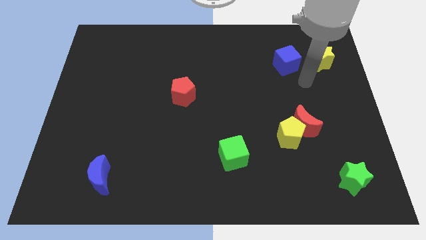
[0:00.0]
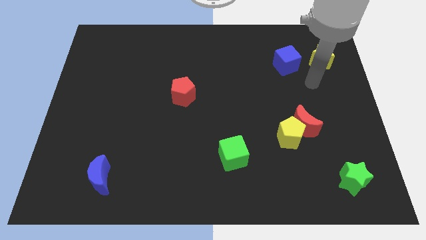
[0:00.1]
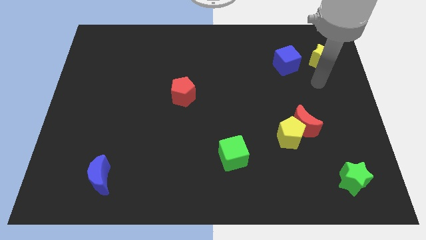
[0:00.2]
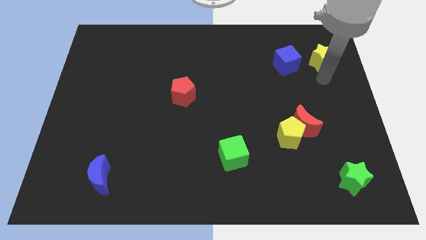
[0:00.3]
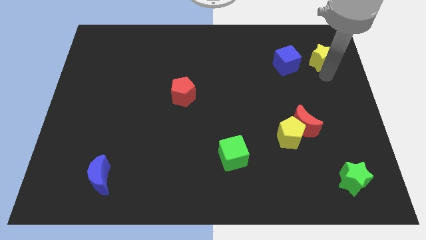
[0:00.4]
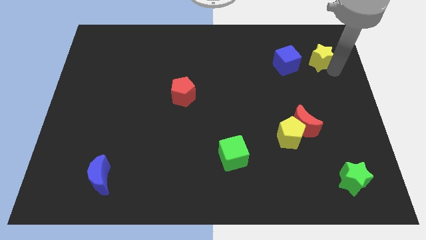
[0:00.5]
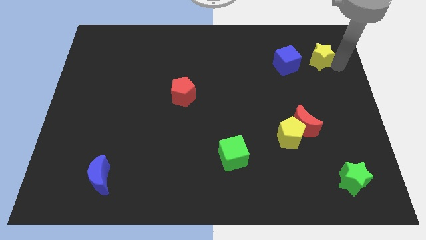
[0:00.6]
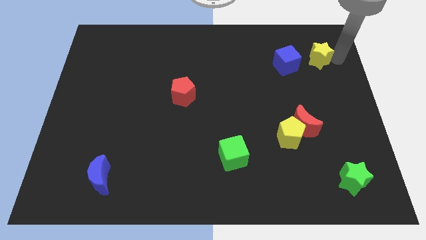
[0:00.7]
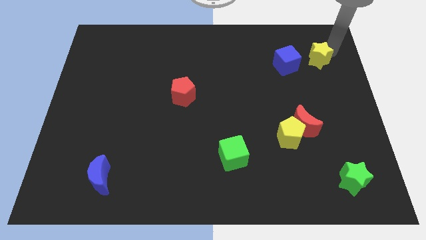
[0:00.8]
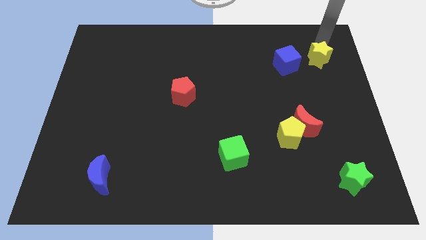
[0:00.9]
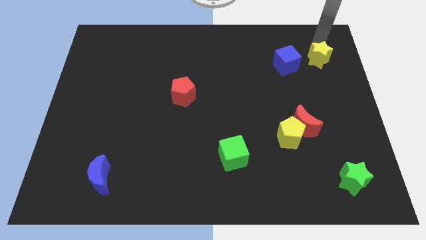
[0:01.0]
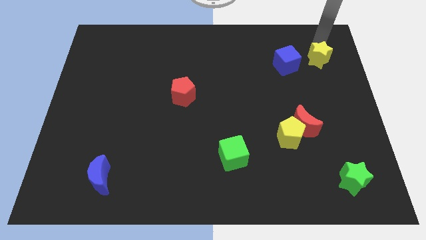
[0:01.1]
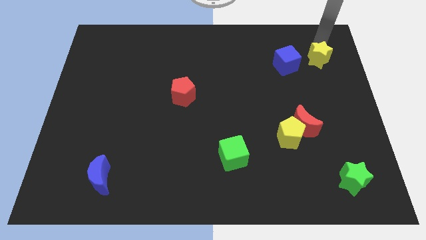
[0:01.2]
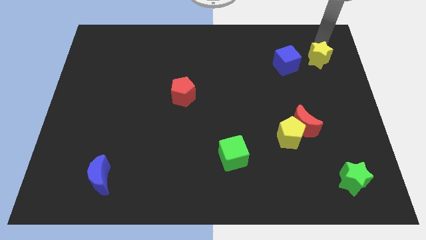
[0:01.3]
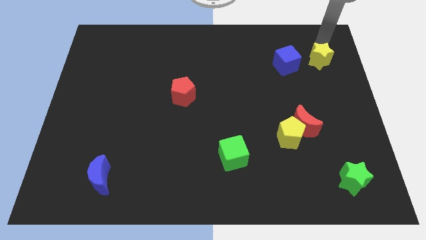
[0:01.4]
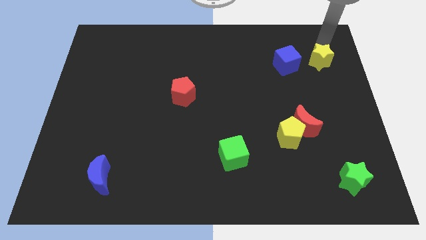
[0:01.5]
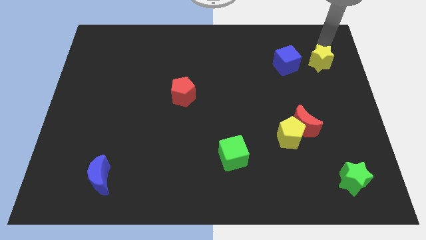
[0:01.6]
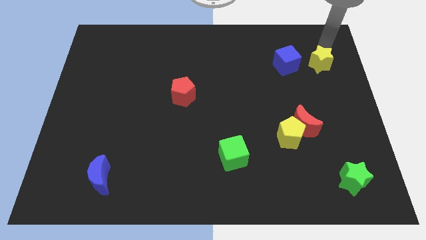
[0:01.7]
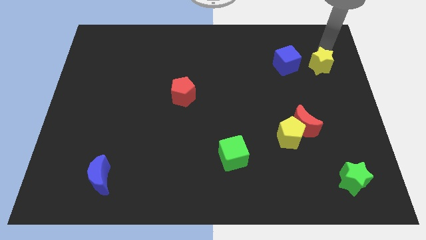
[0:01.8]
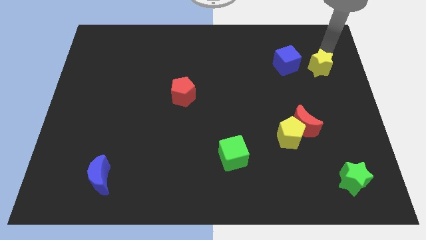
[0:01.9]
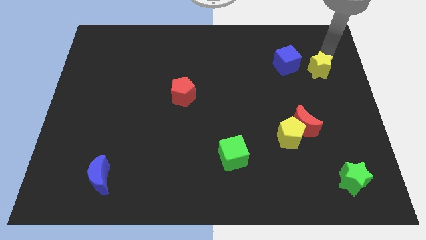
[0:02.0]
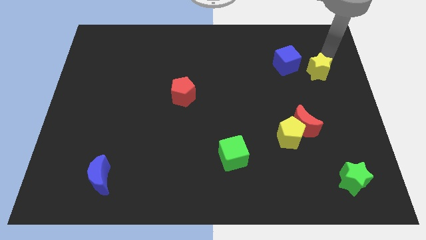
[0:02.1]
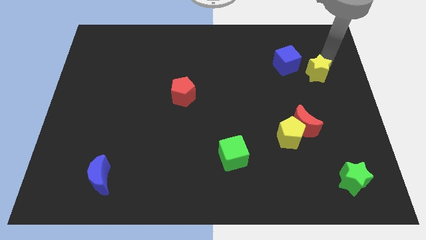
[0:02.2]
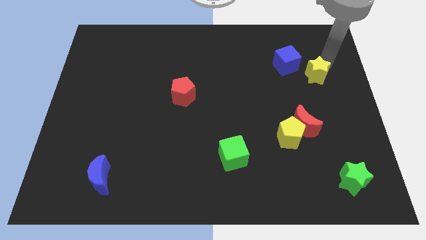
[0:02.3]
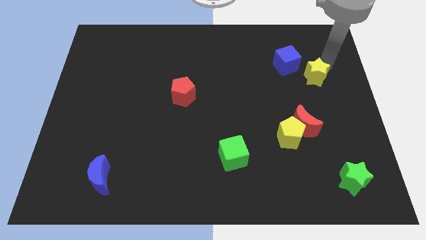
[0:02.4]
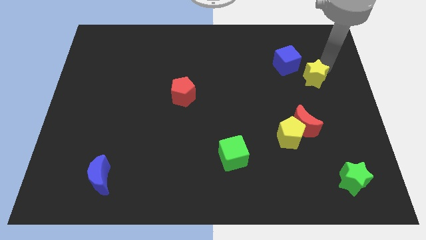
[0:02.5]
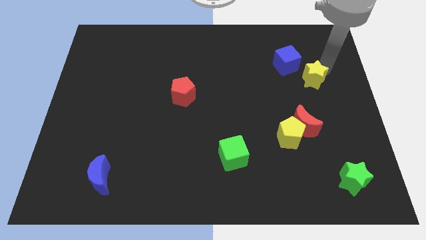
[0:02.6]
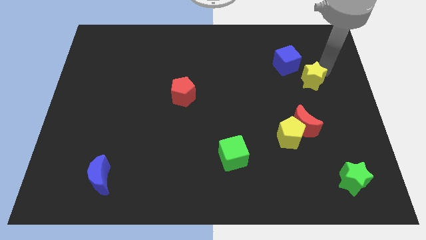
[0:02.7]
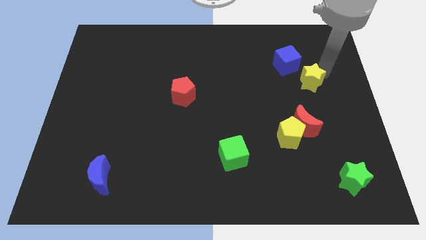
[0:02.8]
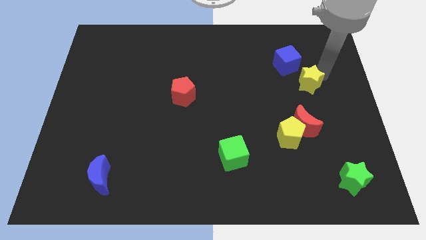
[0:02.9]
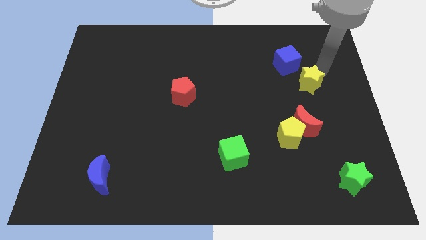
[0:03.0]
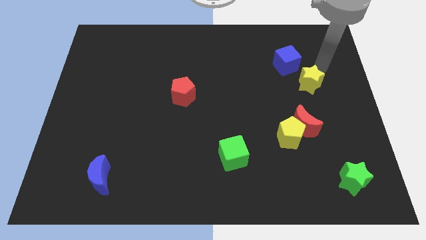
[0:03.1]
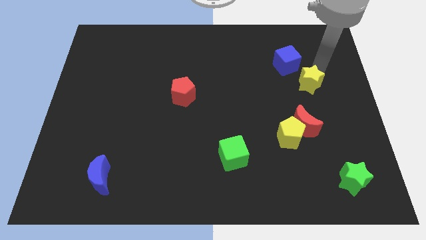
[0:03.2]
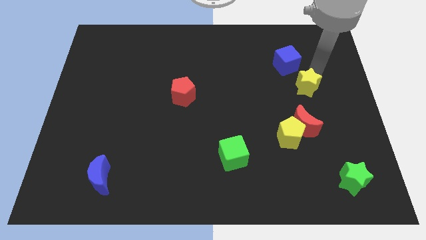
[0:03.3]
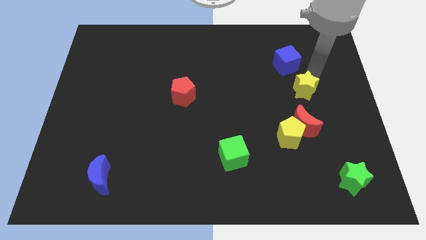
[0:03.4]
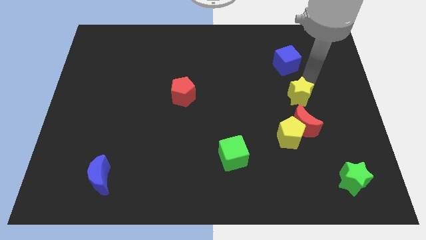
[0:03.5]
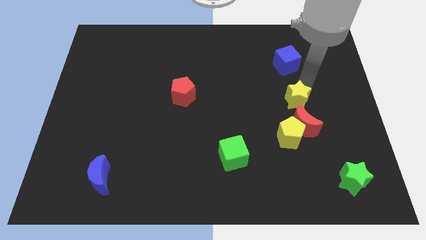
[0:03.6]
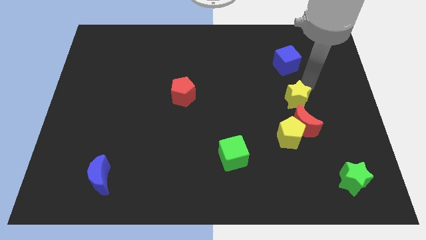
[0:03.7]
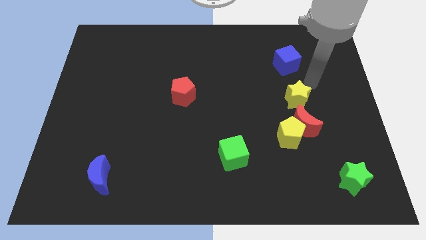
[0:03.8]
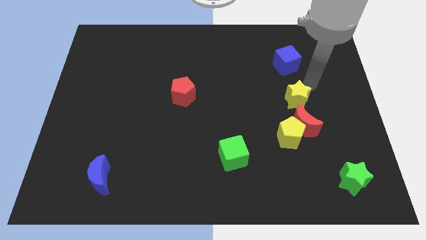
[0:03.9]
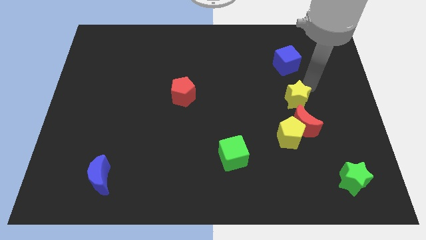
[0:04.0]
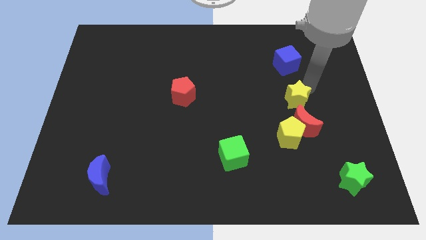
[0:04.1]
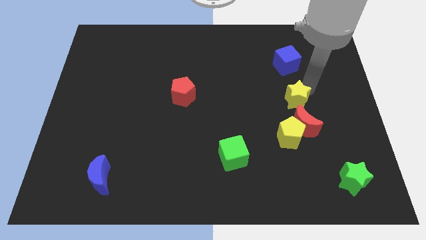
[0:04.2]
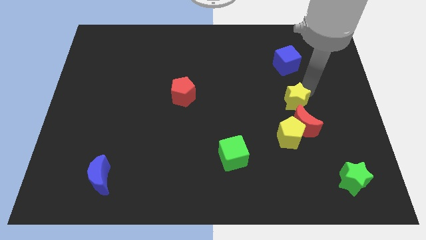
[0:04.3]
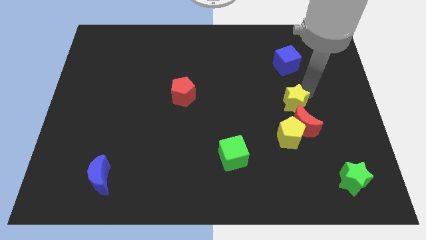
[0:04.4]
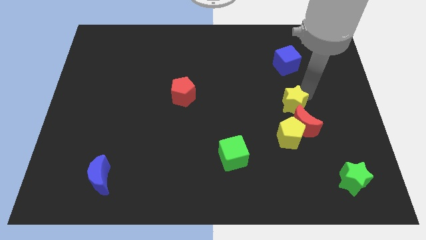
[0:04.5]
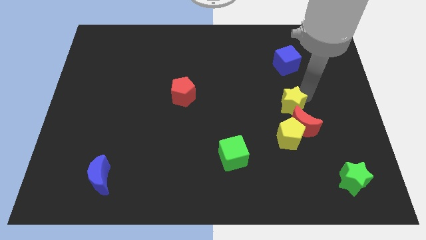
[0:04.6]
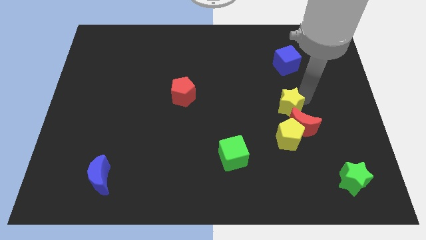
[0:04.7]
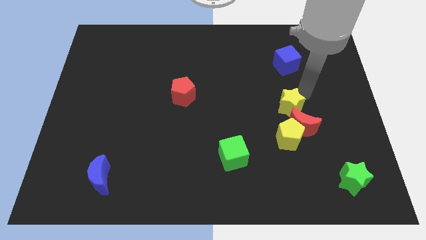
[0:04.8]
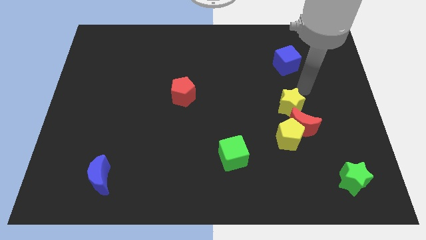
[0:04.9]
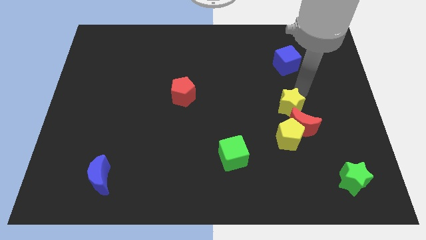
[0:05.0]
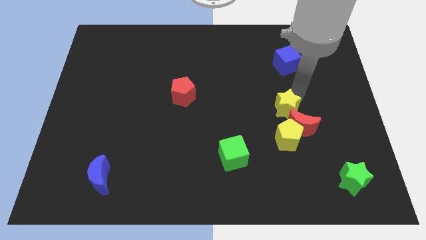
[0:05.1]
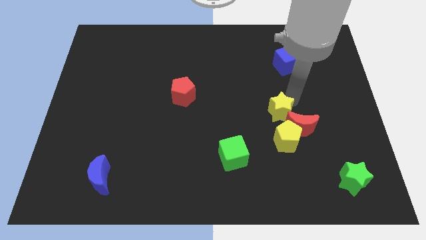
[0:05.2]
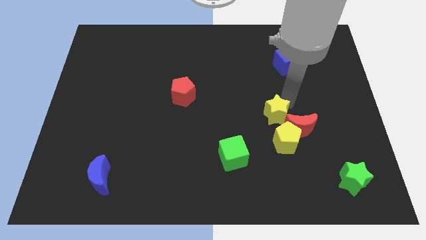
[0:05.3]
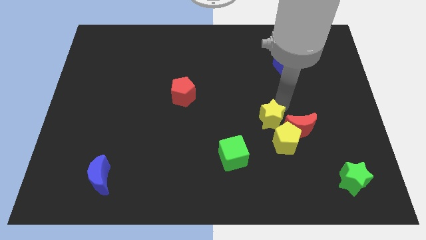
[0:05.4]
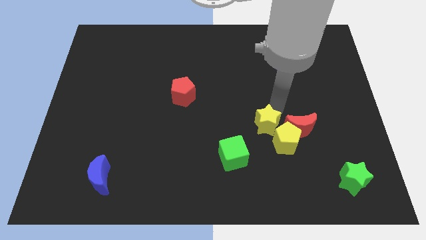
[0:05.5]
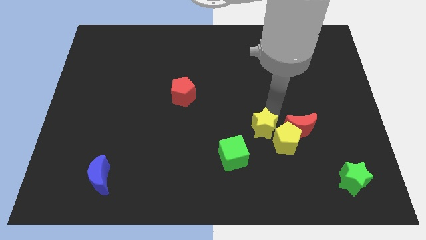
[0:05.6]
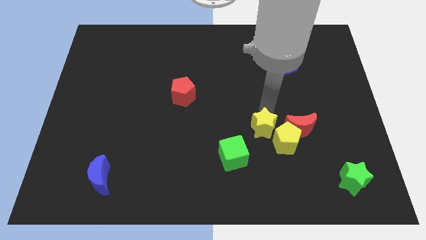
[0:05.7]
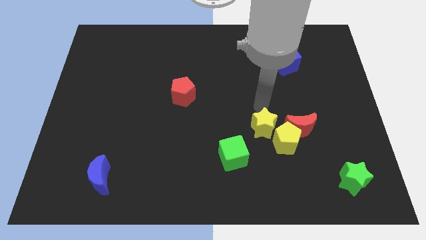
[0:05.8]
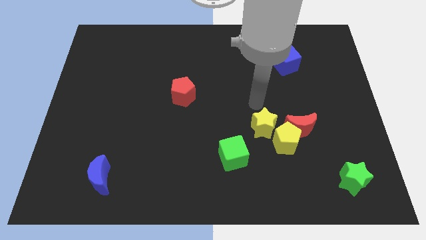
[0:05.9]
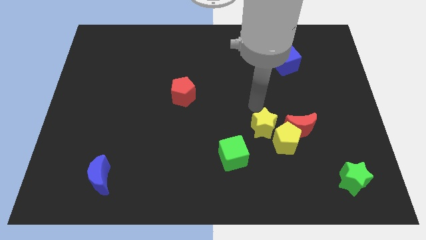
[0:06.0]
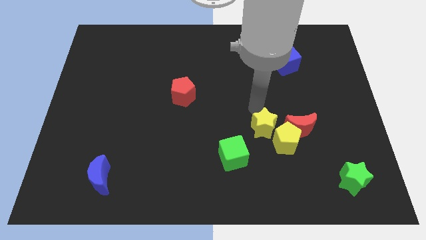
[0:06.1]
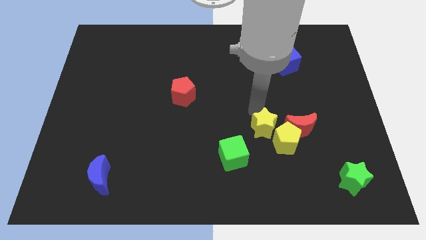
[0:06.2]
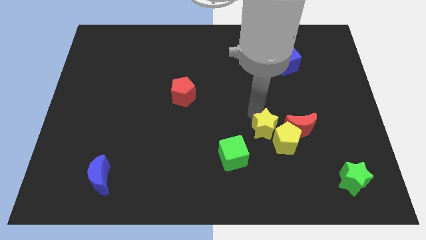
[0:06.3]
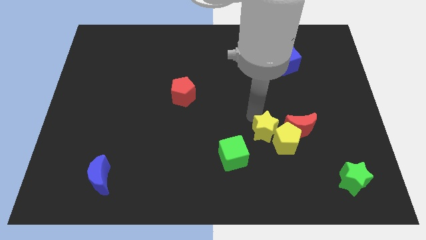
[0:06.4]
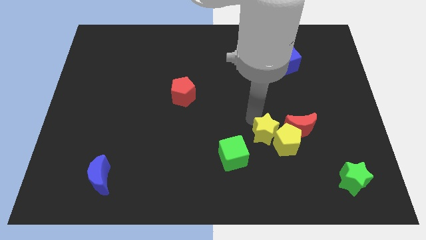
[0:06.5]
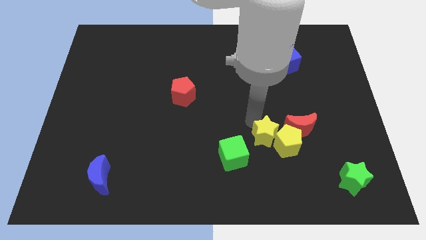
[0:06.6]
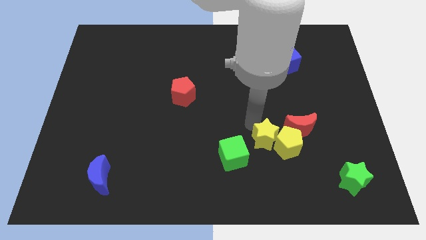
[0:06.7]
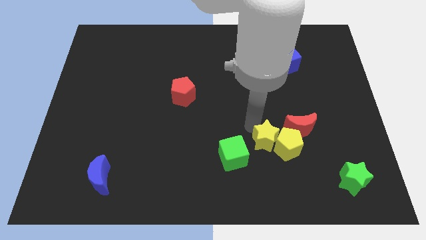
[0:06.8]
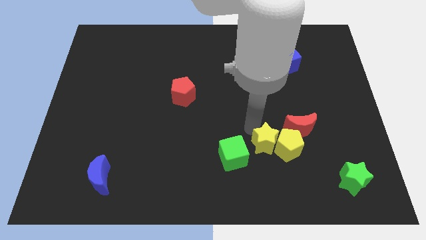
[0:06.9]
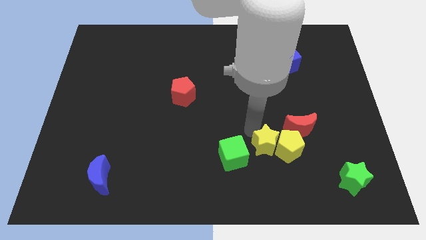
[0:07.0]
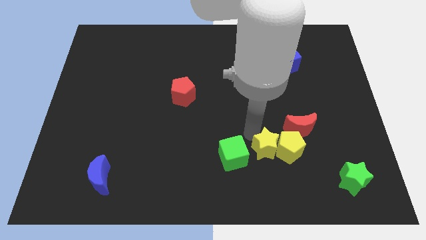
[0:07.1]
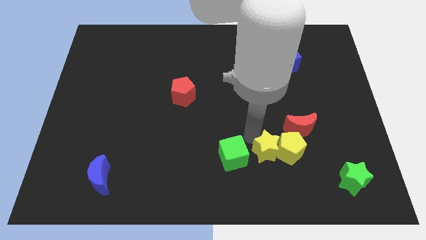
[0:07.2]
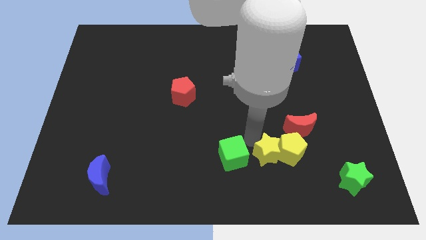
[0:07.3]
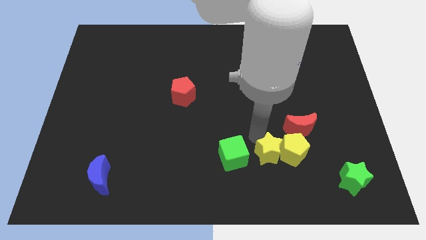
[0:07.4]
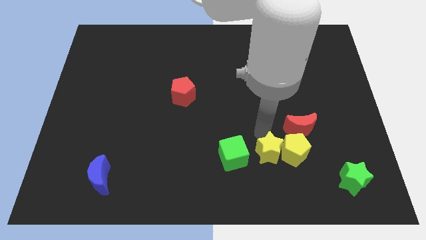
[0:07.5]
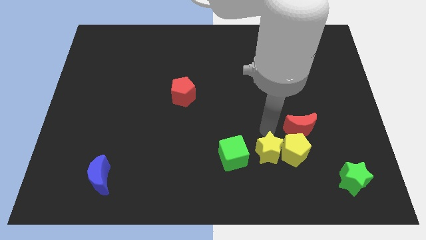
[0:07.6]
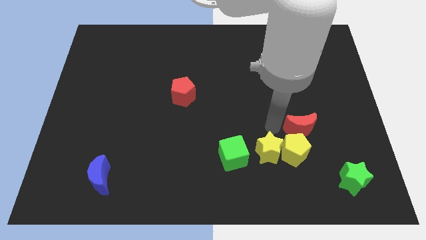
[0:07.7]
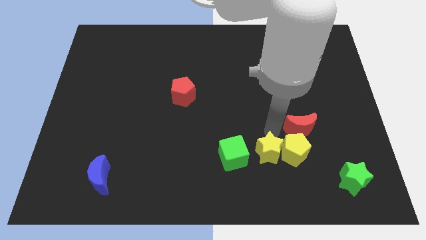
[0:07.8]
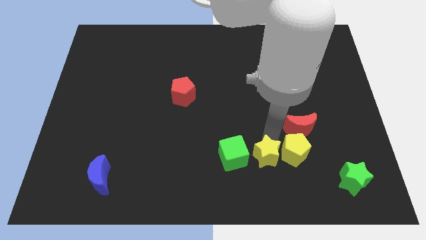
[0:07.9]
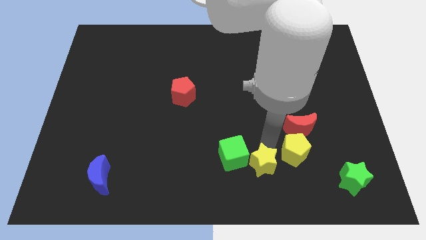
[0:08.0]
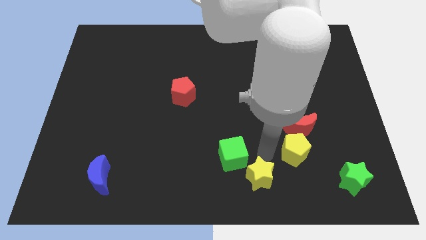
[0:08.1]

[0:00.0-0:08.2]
move the yellow star to the bottom
